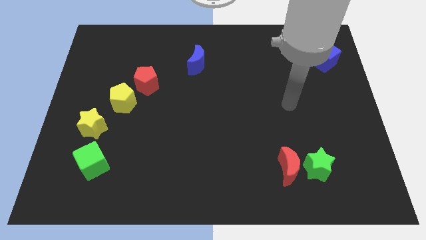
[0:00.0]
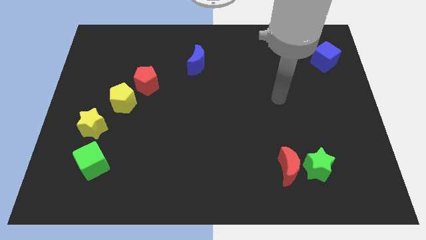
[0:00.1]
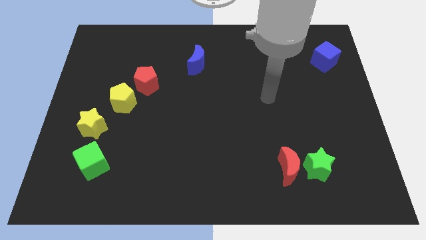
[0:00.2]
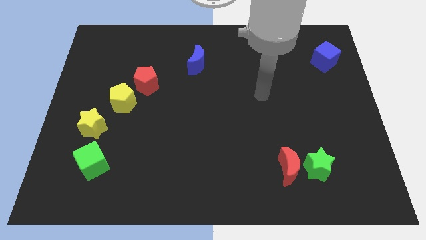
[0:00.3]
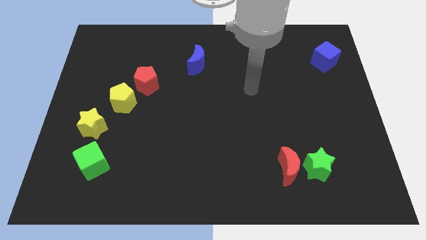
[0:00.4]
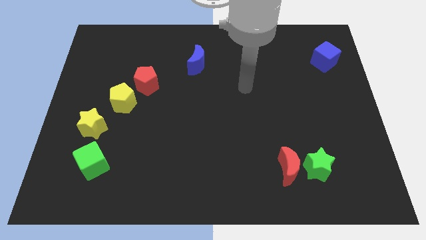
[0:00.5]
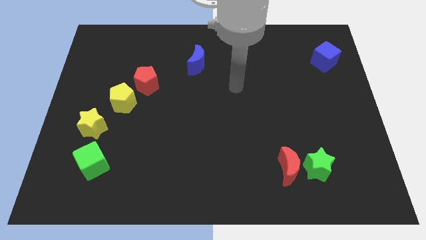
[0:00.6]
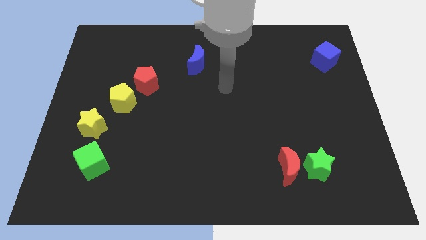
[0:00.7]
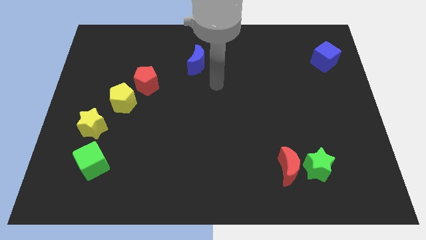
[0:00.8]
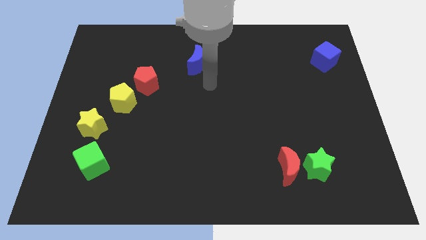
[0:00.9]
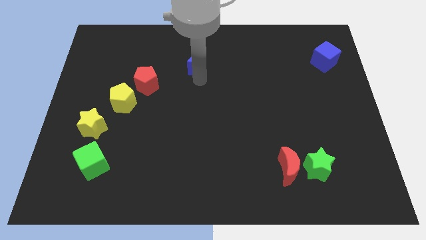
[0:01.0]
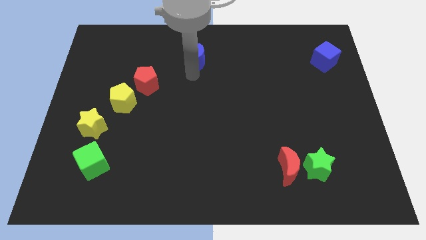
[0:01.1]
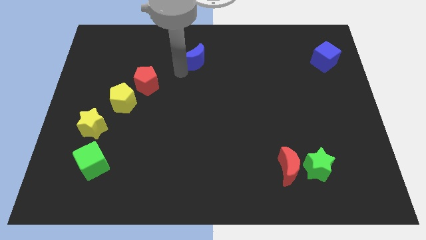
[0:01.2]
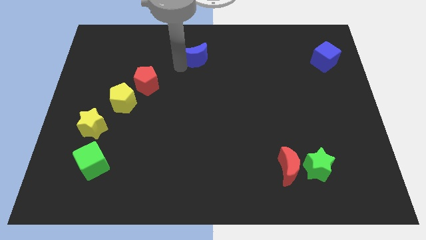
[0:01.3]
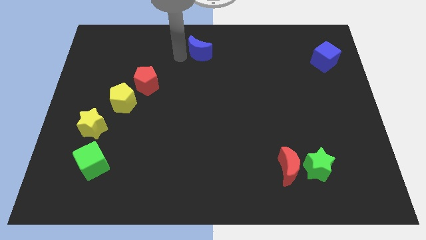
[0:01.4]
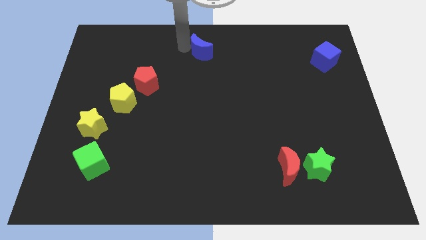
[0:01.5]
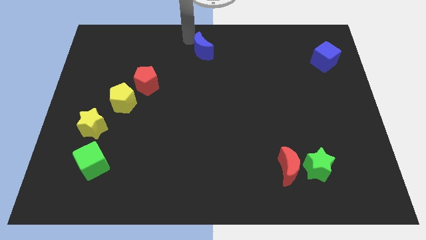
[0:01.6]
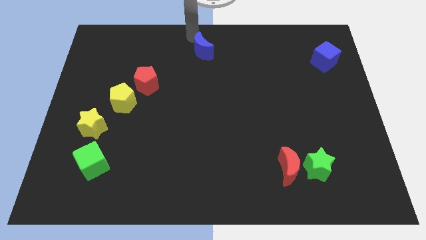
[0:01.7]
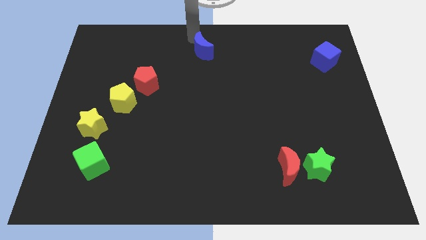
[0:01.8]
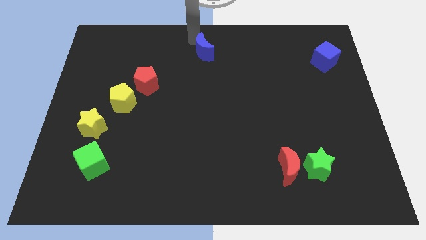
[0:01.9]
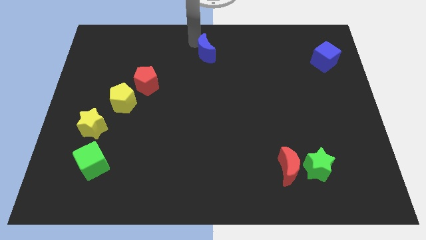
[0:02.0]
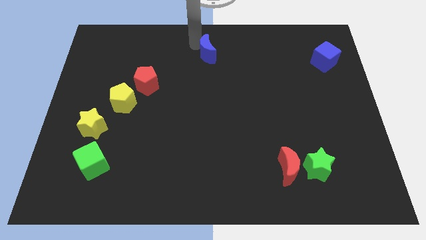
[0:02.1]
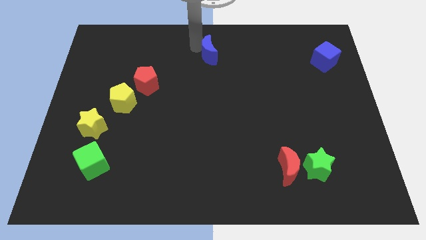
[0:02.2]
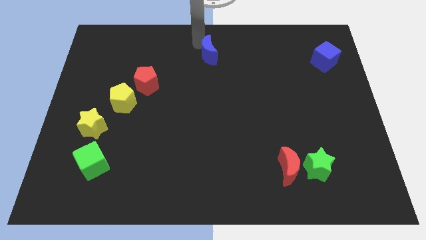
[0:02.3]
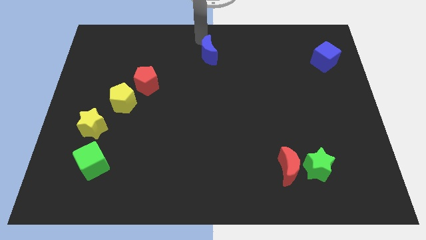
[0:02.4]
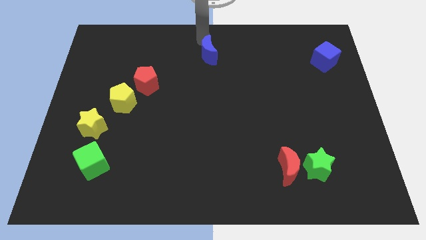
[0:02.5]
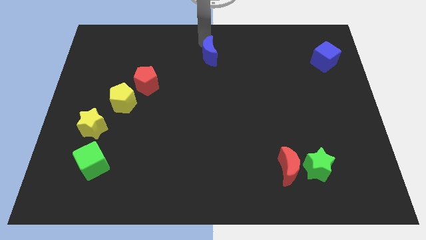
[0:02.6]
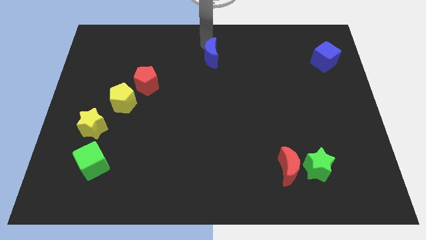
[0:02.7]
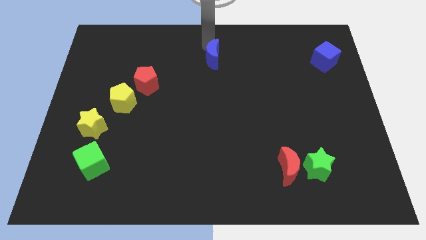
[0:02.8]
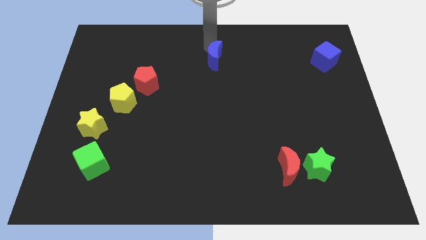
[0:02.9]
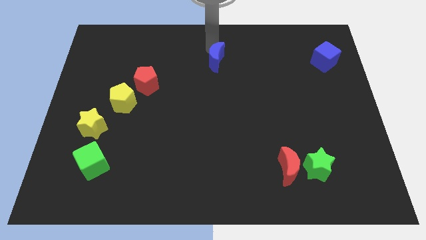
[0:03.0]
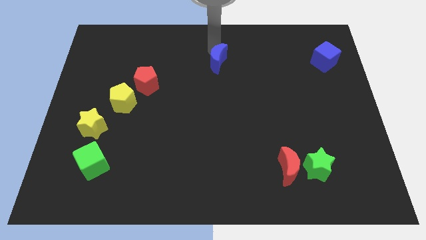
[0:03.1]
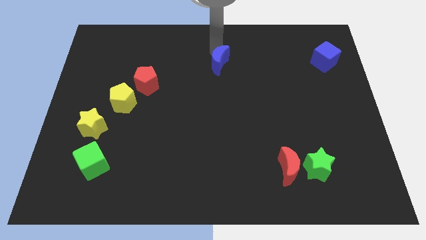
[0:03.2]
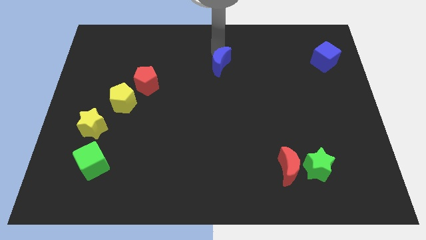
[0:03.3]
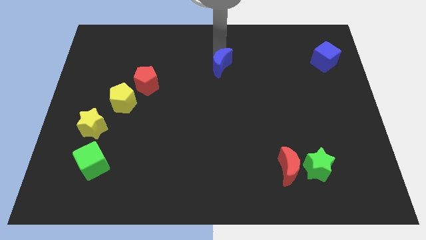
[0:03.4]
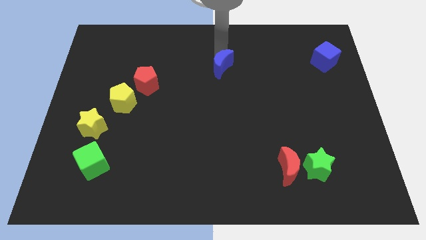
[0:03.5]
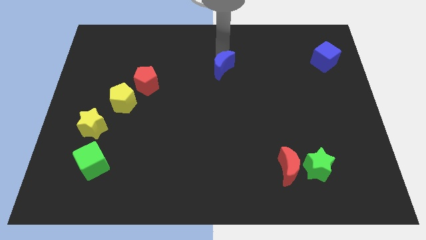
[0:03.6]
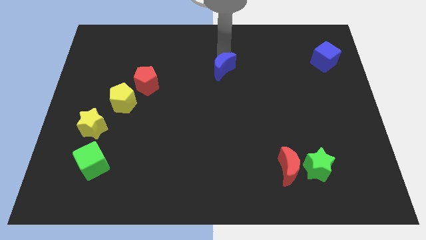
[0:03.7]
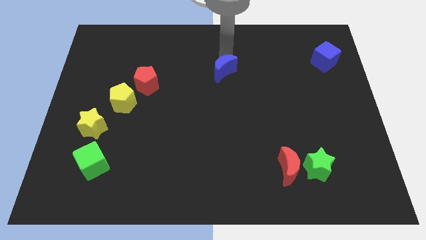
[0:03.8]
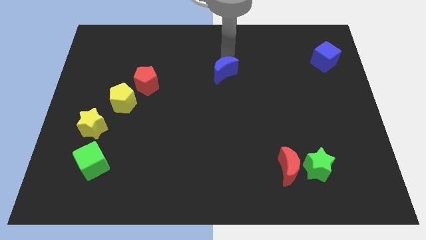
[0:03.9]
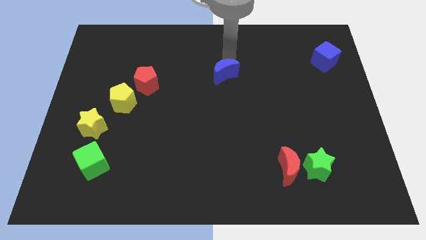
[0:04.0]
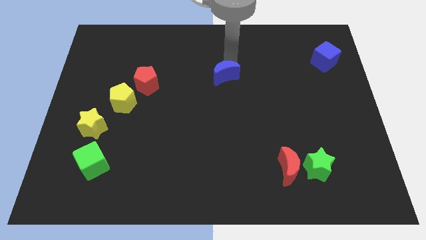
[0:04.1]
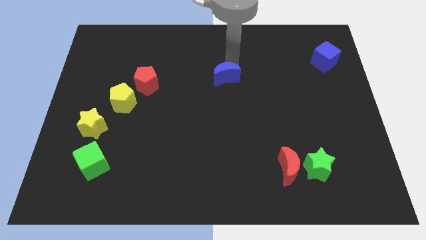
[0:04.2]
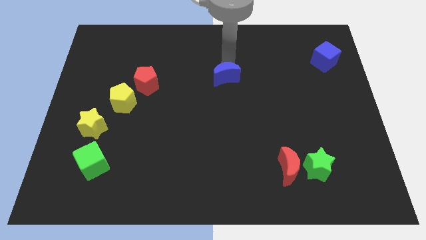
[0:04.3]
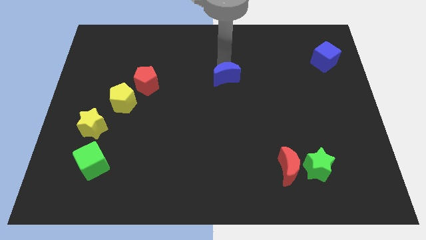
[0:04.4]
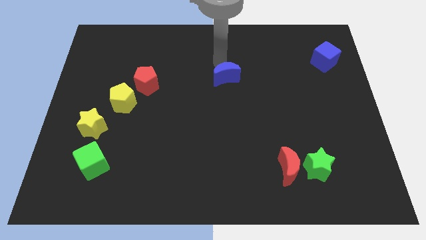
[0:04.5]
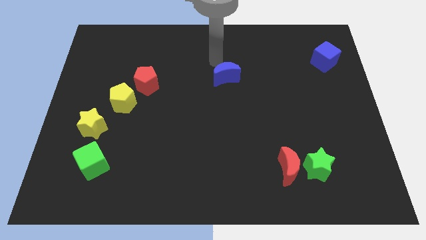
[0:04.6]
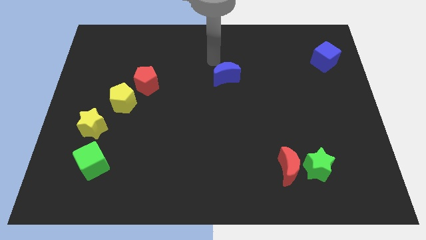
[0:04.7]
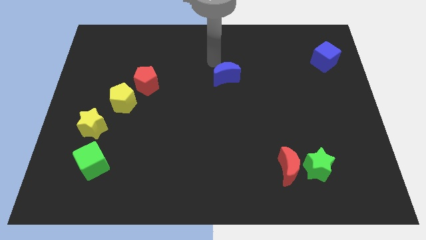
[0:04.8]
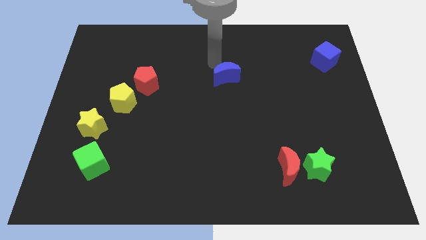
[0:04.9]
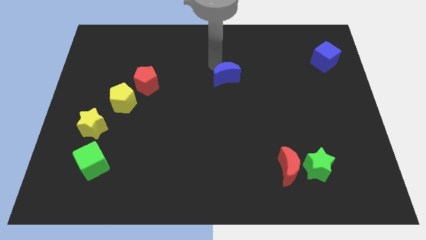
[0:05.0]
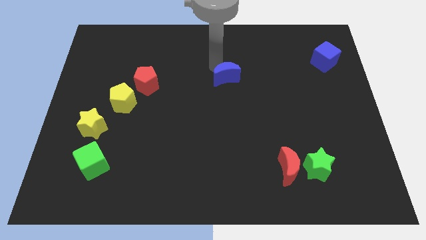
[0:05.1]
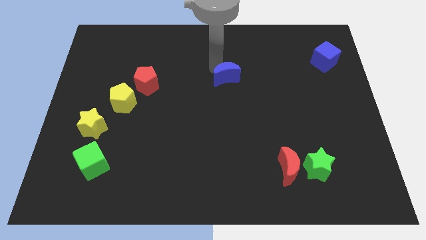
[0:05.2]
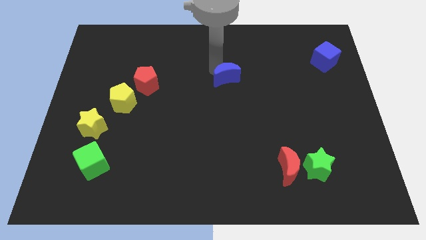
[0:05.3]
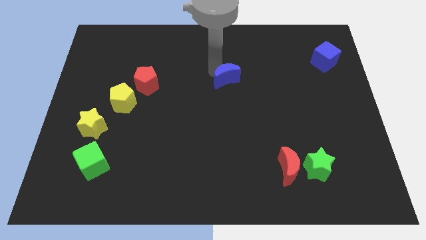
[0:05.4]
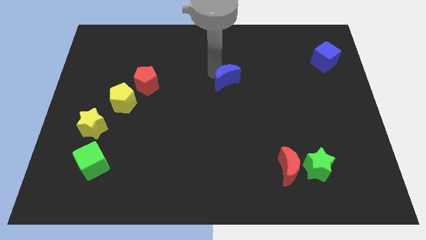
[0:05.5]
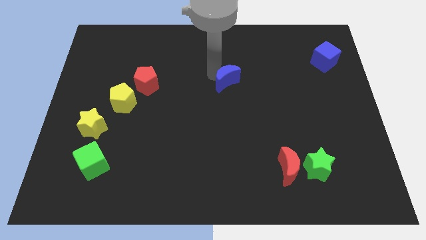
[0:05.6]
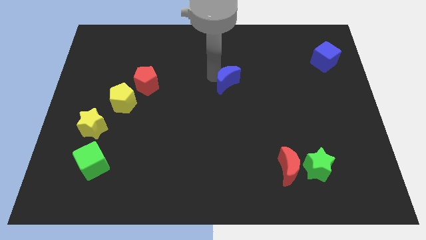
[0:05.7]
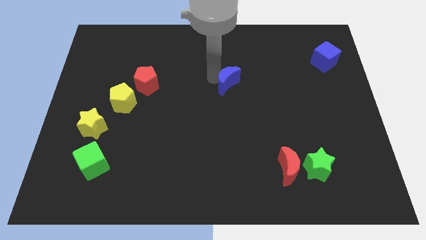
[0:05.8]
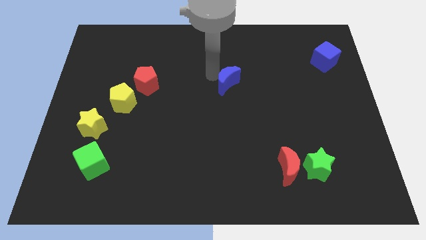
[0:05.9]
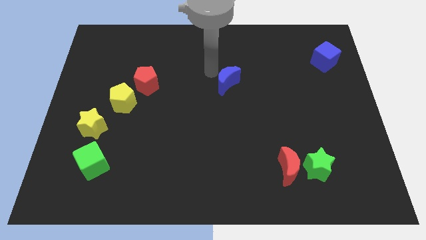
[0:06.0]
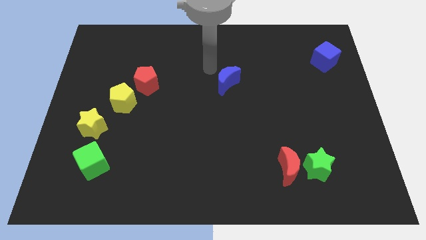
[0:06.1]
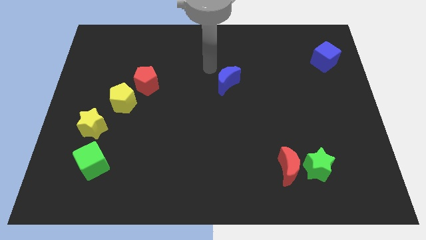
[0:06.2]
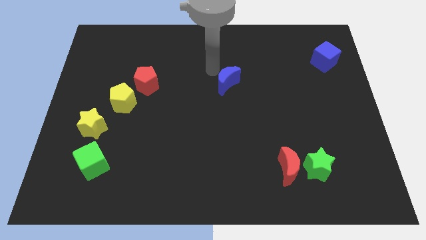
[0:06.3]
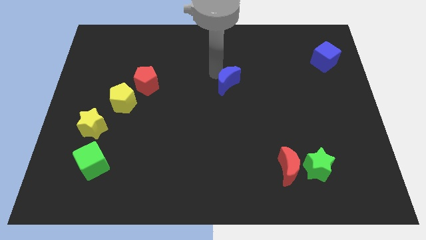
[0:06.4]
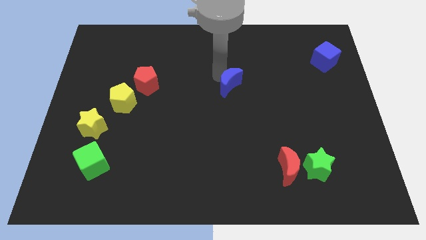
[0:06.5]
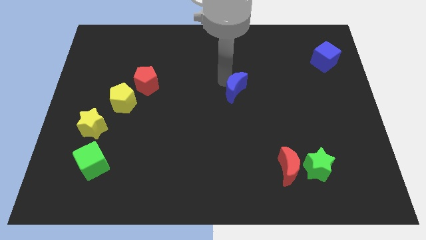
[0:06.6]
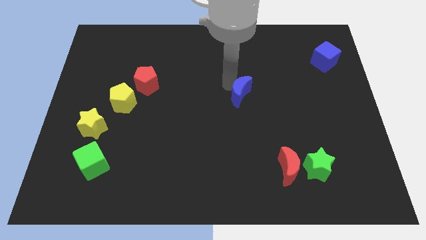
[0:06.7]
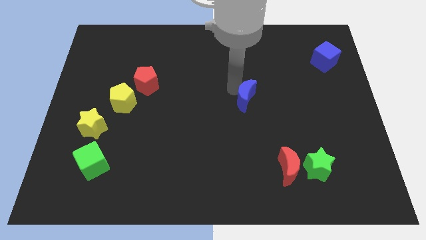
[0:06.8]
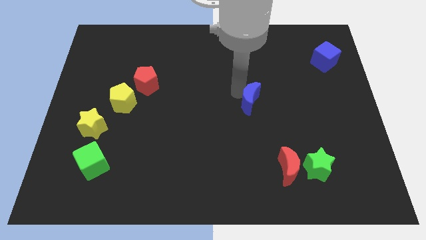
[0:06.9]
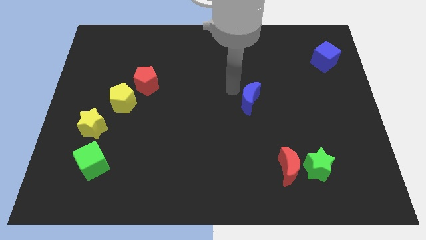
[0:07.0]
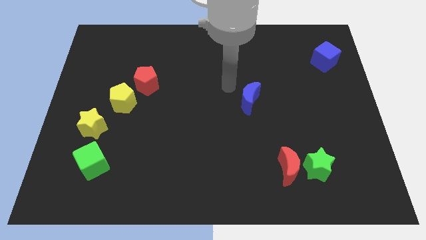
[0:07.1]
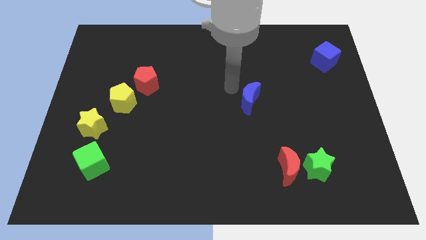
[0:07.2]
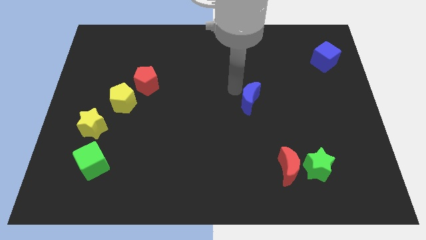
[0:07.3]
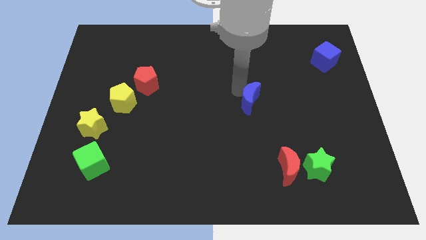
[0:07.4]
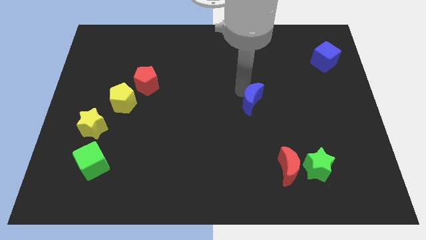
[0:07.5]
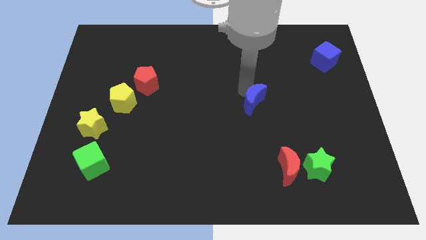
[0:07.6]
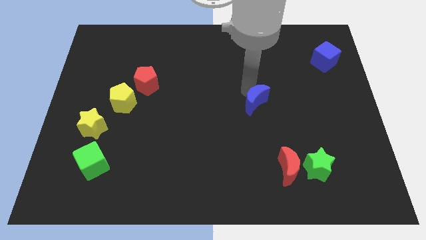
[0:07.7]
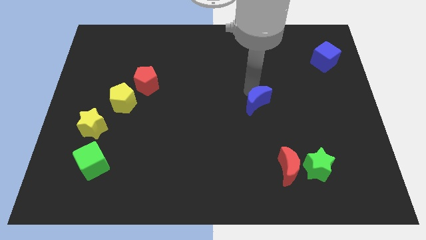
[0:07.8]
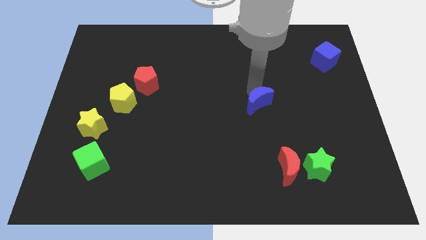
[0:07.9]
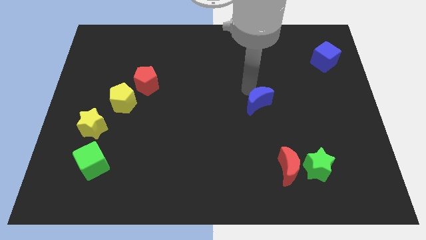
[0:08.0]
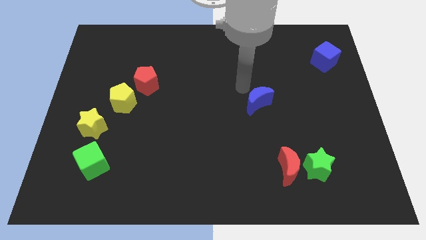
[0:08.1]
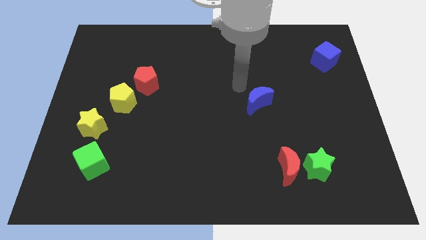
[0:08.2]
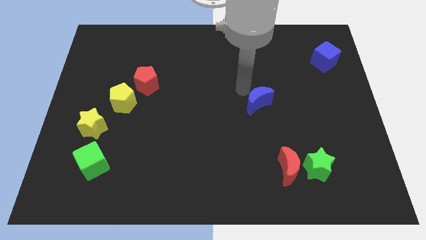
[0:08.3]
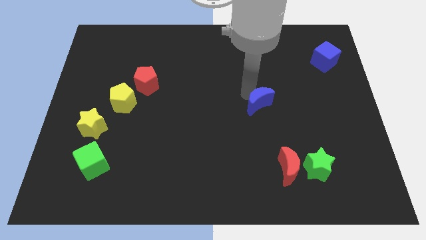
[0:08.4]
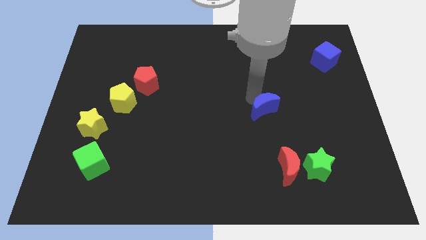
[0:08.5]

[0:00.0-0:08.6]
push the blue moon downwards and to the right
